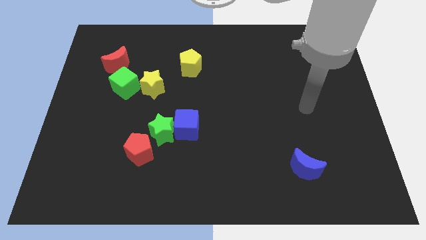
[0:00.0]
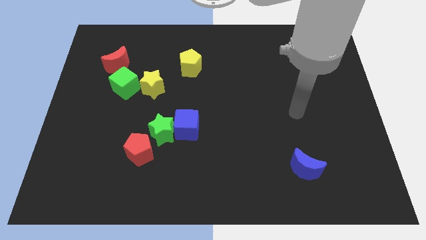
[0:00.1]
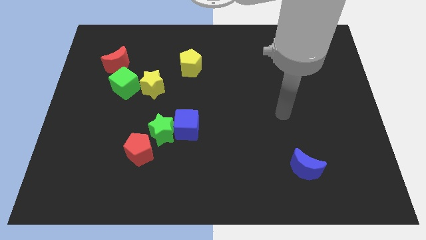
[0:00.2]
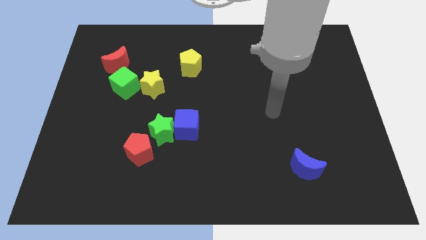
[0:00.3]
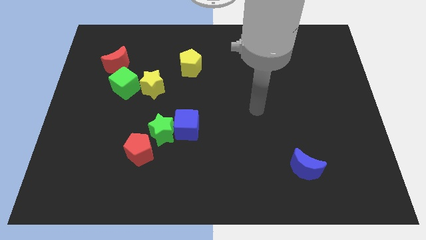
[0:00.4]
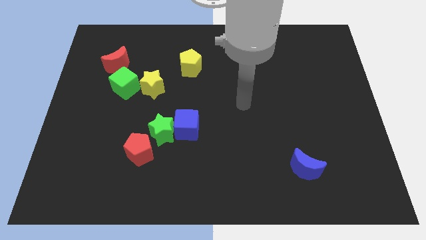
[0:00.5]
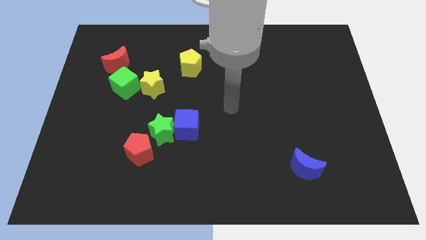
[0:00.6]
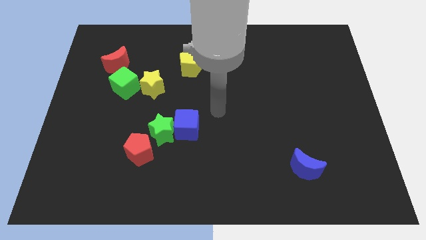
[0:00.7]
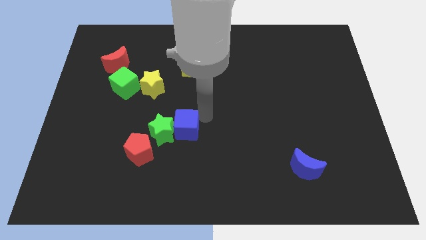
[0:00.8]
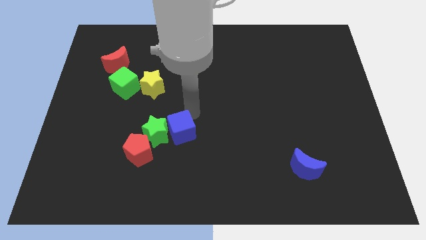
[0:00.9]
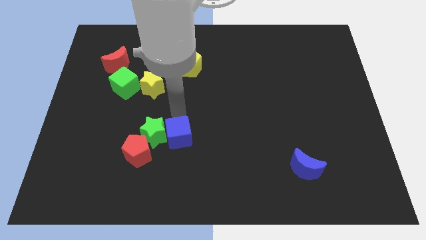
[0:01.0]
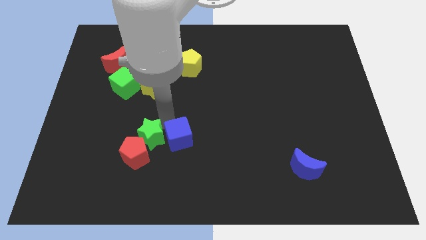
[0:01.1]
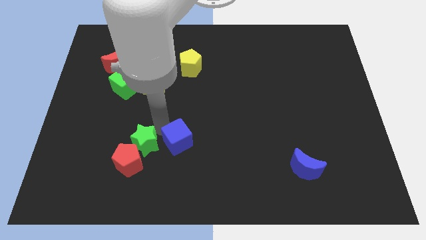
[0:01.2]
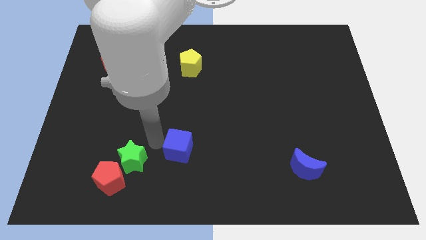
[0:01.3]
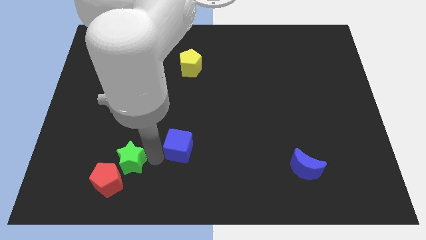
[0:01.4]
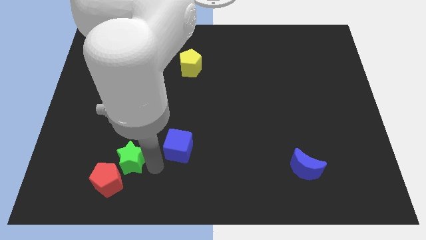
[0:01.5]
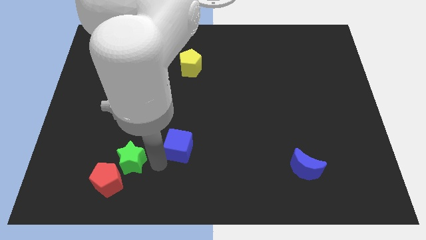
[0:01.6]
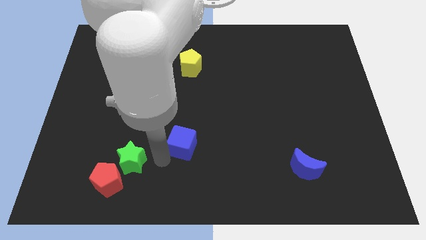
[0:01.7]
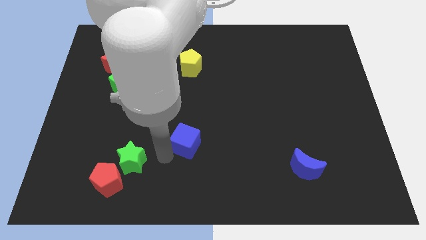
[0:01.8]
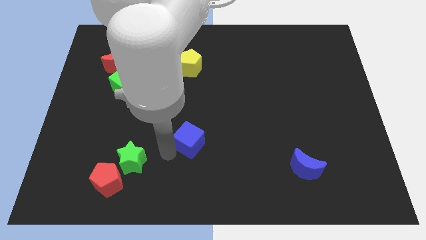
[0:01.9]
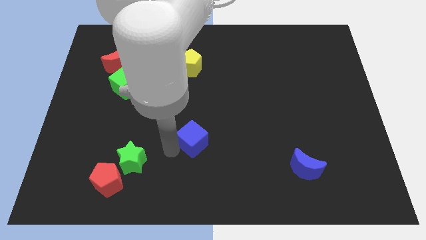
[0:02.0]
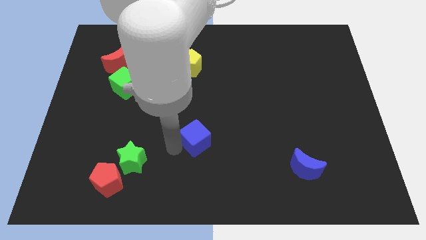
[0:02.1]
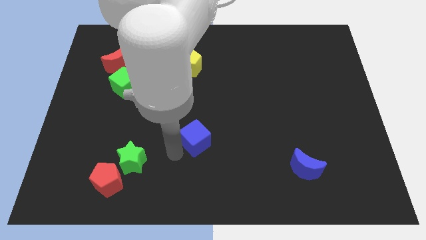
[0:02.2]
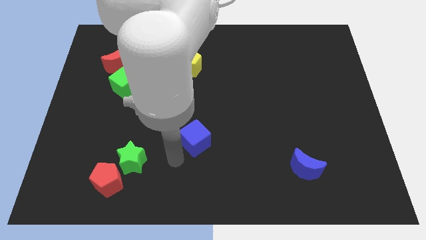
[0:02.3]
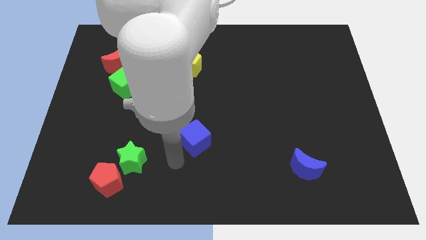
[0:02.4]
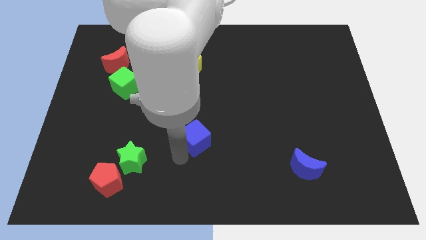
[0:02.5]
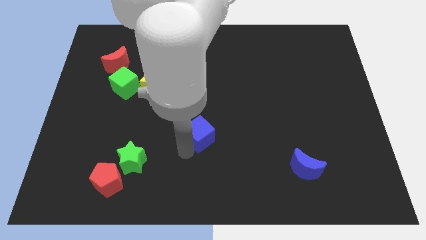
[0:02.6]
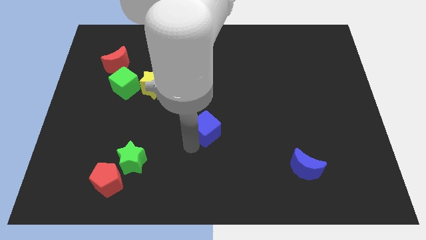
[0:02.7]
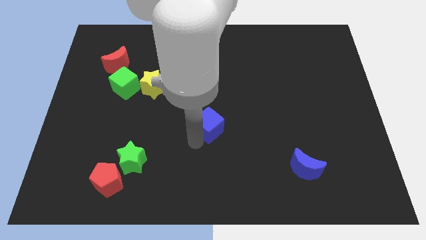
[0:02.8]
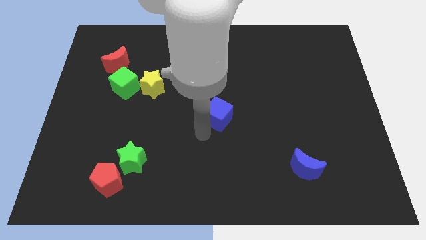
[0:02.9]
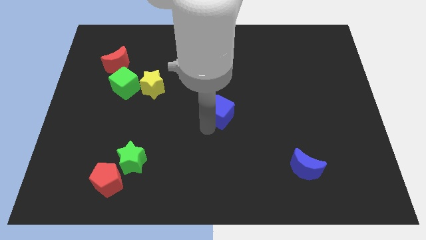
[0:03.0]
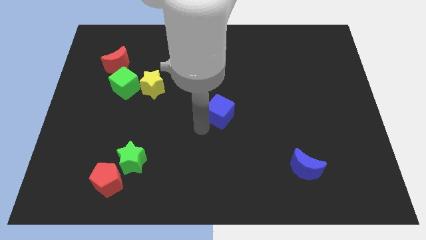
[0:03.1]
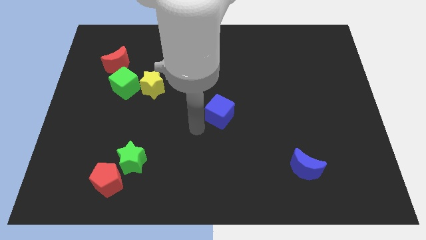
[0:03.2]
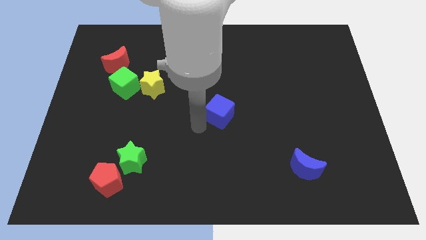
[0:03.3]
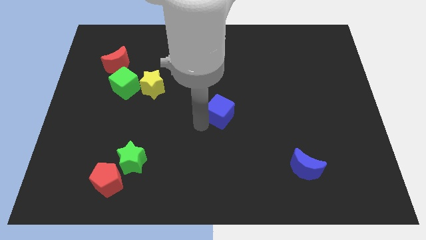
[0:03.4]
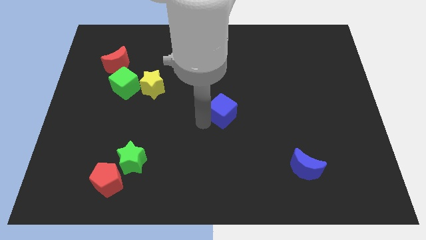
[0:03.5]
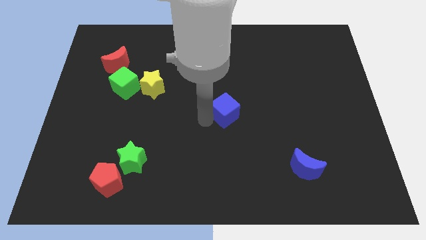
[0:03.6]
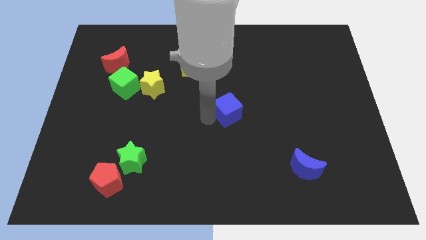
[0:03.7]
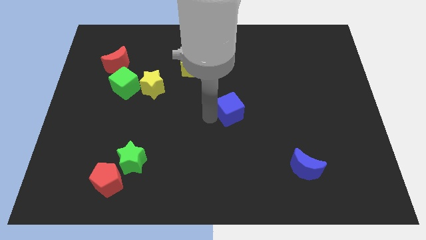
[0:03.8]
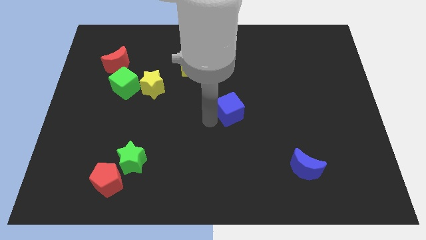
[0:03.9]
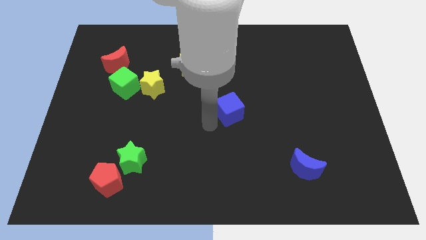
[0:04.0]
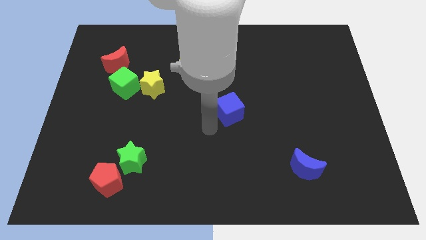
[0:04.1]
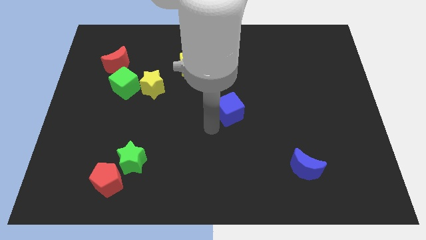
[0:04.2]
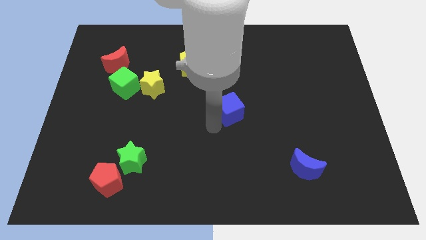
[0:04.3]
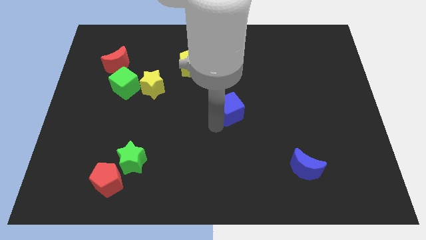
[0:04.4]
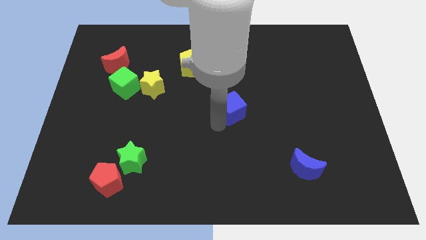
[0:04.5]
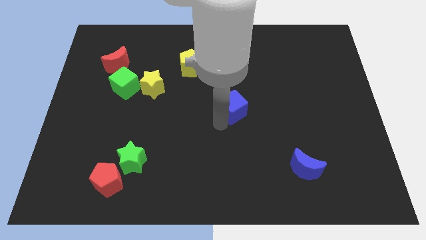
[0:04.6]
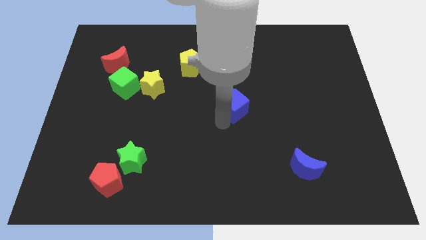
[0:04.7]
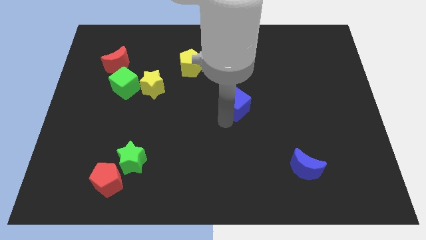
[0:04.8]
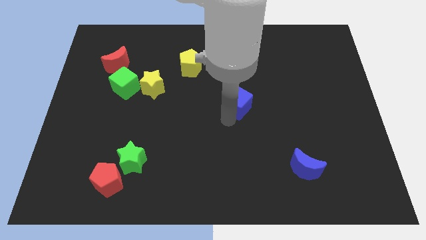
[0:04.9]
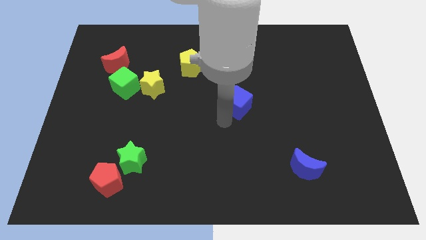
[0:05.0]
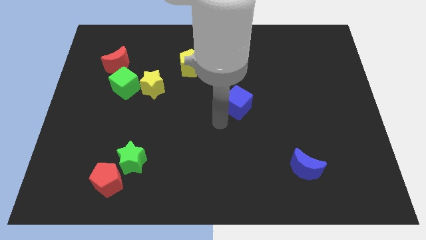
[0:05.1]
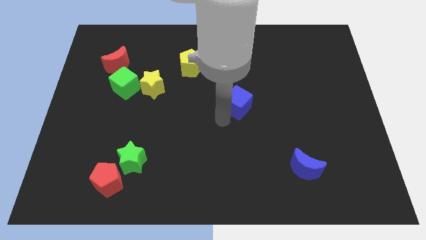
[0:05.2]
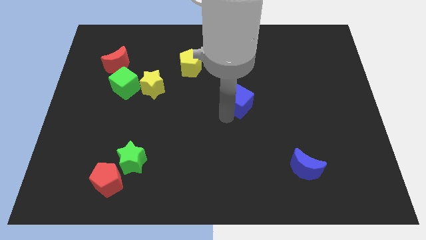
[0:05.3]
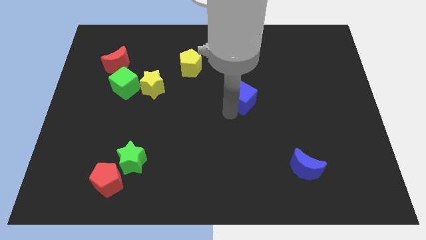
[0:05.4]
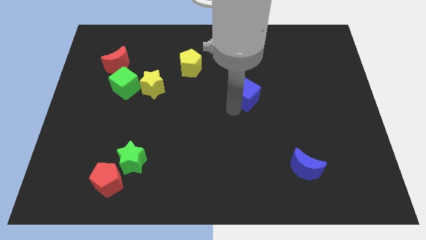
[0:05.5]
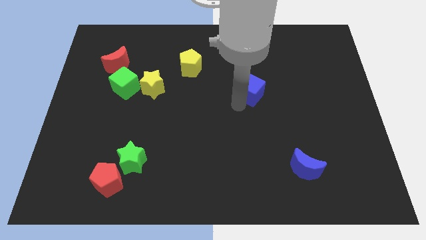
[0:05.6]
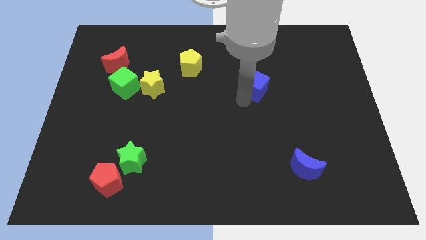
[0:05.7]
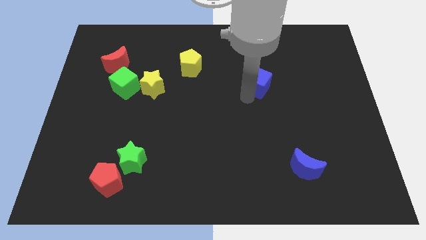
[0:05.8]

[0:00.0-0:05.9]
move the blue cube up and to the right

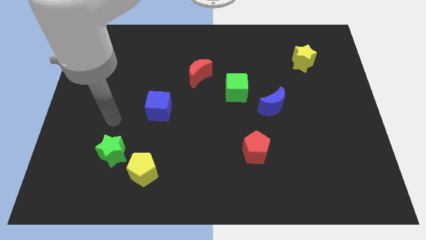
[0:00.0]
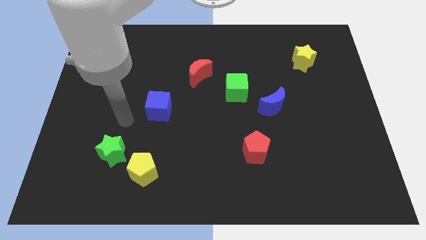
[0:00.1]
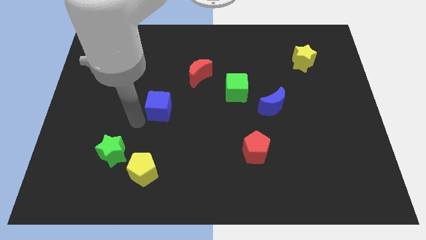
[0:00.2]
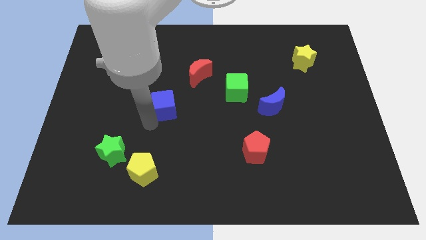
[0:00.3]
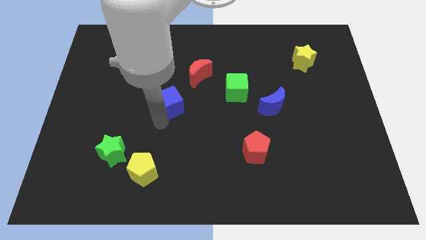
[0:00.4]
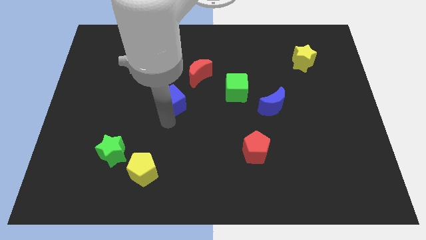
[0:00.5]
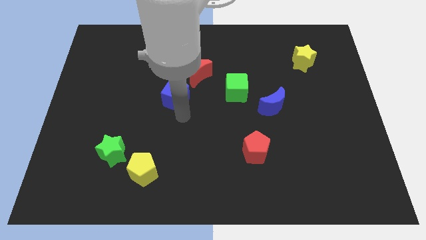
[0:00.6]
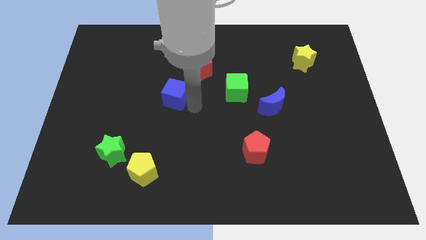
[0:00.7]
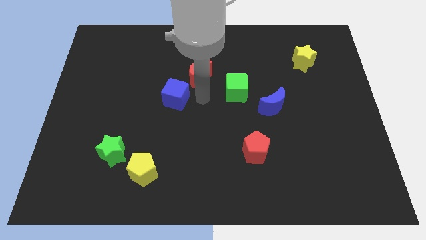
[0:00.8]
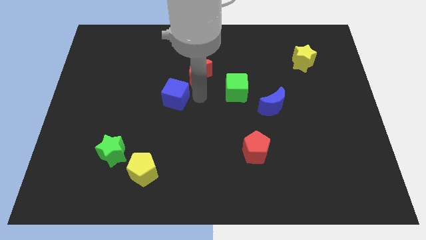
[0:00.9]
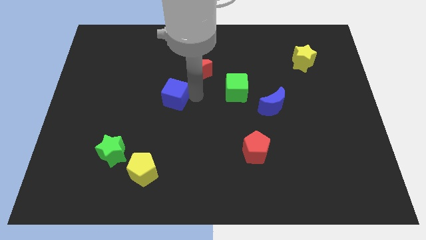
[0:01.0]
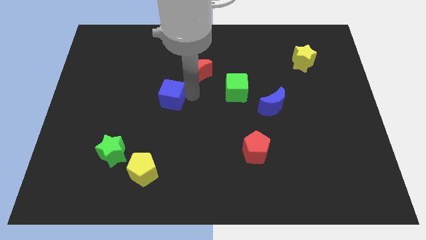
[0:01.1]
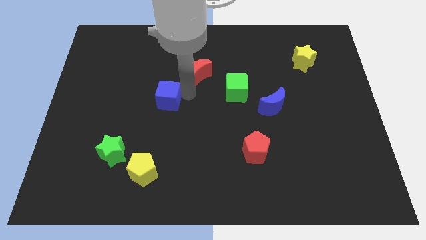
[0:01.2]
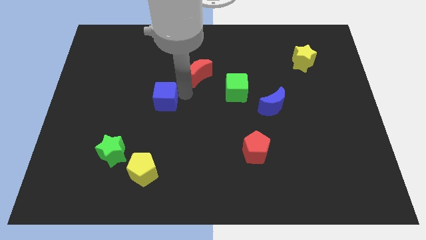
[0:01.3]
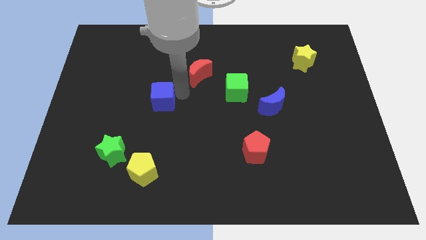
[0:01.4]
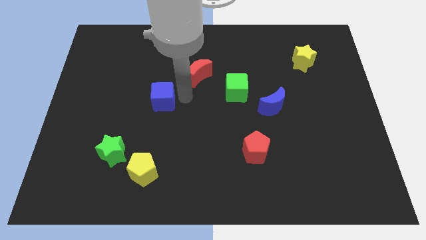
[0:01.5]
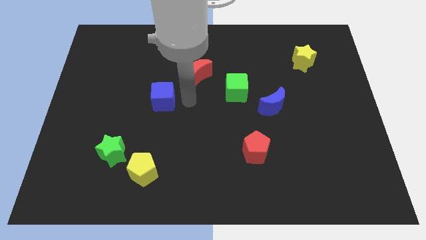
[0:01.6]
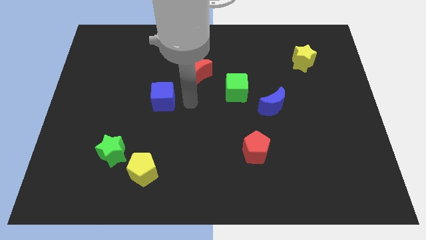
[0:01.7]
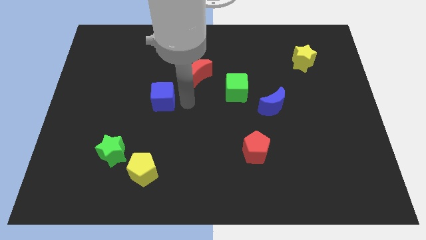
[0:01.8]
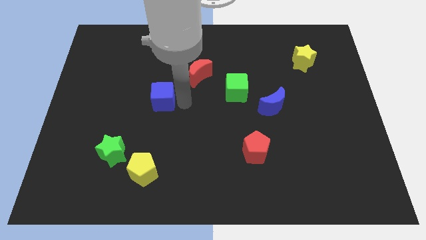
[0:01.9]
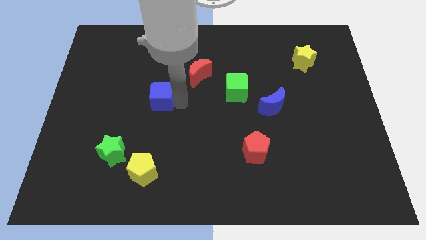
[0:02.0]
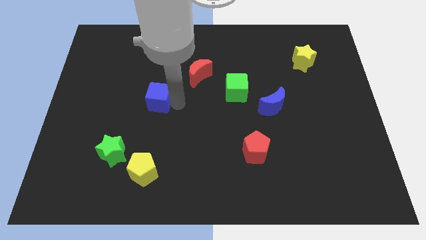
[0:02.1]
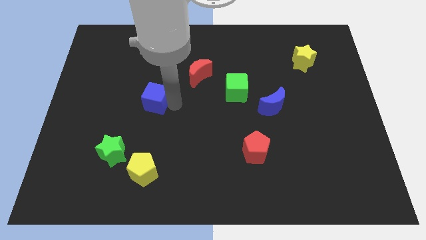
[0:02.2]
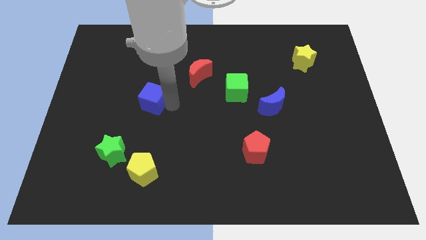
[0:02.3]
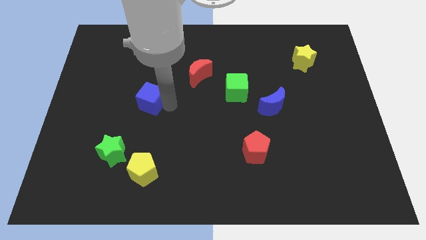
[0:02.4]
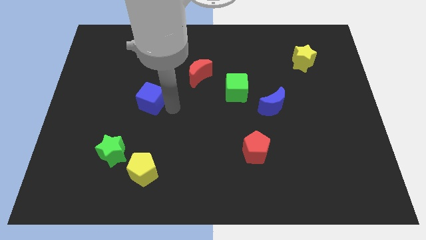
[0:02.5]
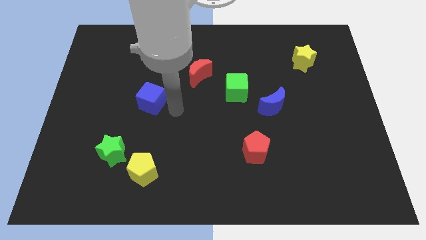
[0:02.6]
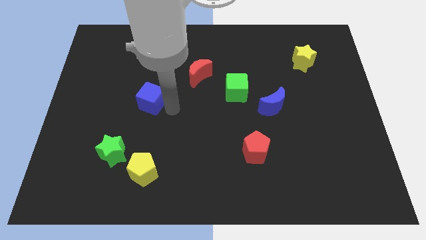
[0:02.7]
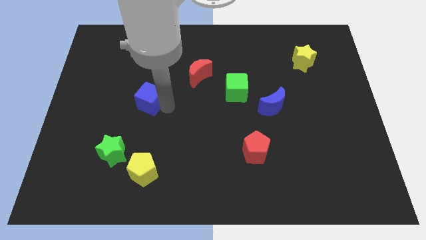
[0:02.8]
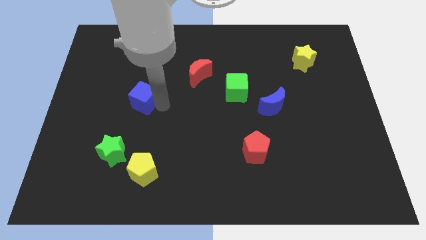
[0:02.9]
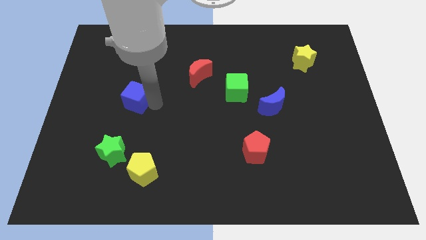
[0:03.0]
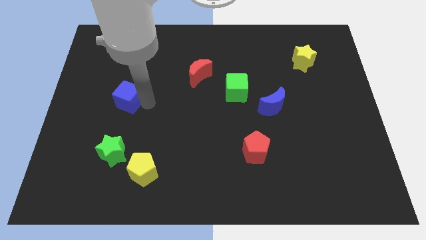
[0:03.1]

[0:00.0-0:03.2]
push the blue cube up and left a little bit
